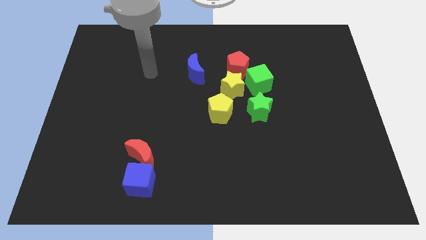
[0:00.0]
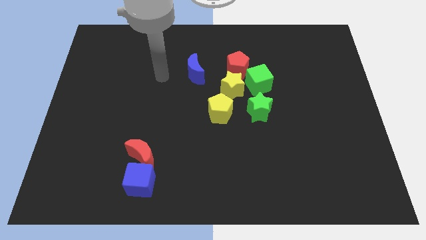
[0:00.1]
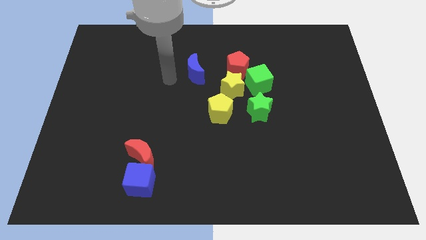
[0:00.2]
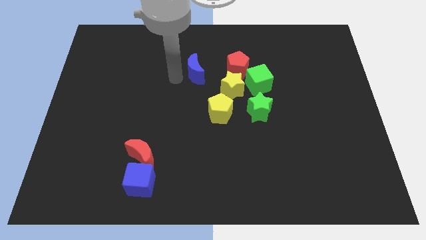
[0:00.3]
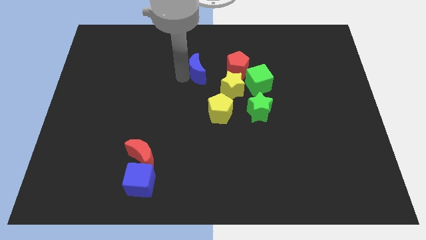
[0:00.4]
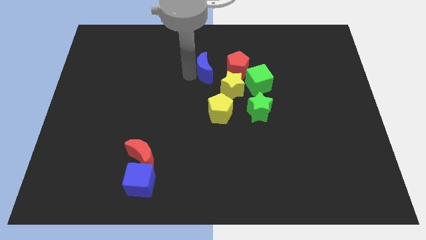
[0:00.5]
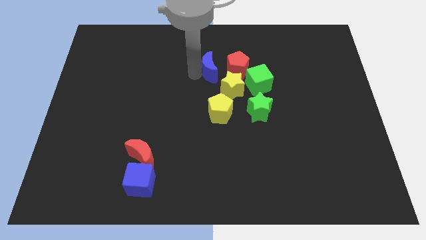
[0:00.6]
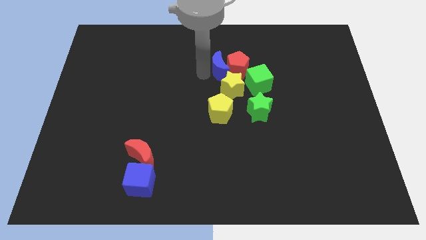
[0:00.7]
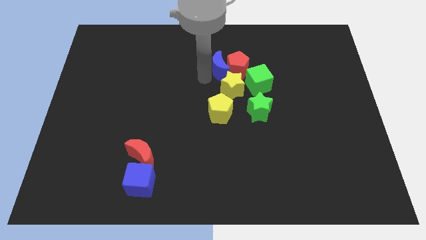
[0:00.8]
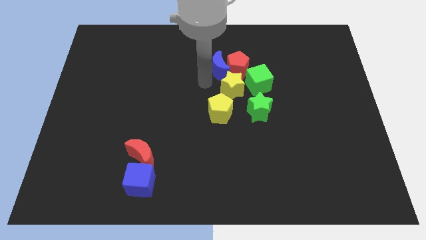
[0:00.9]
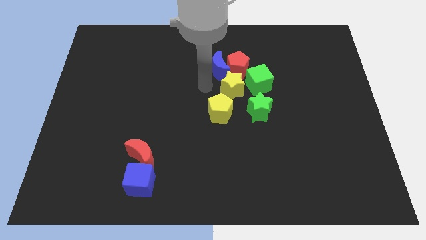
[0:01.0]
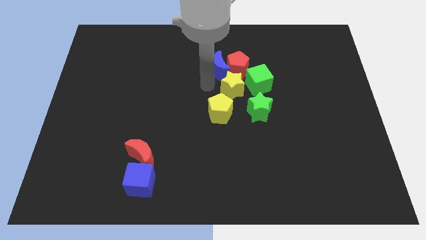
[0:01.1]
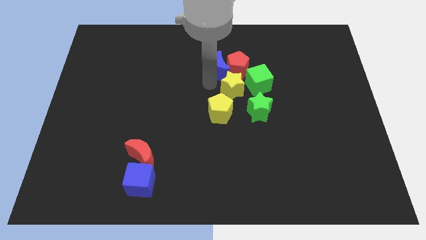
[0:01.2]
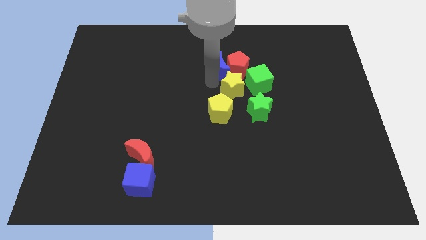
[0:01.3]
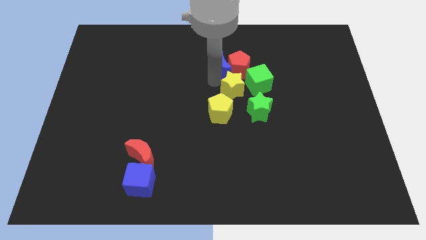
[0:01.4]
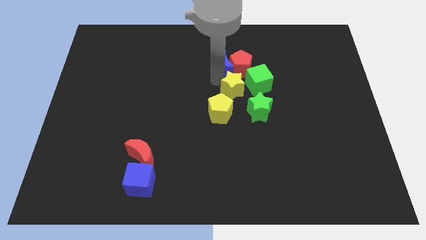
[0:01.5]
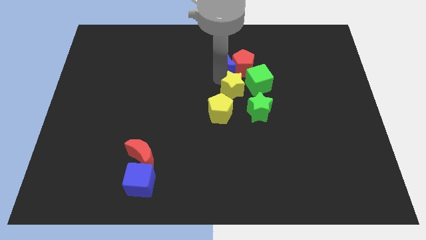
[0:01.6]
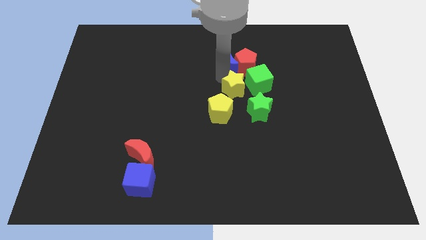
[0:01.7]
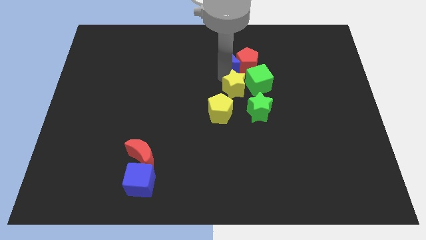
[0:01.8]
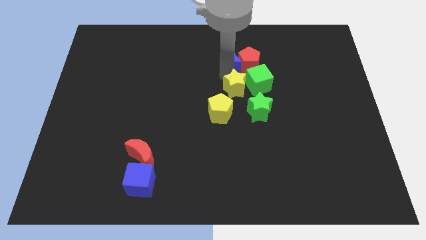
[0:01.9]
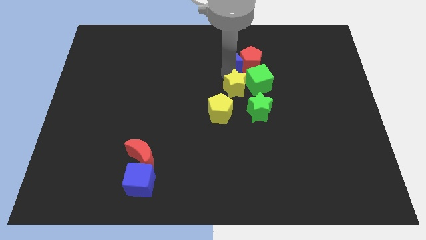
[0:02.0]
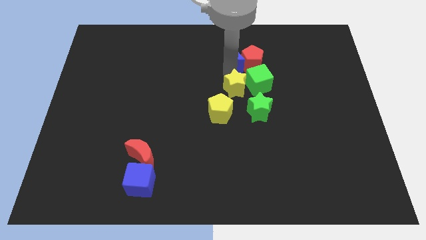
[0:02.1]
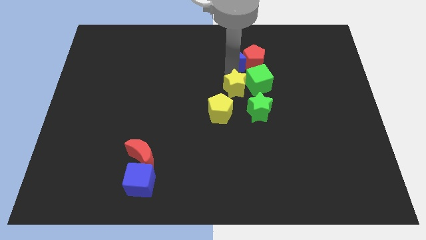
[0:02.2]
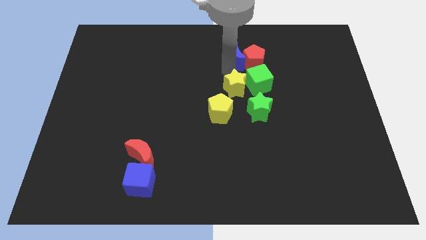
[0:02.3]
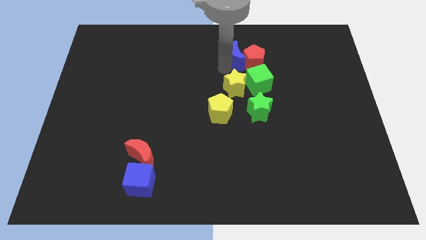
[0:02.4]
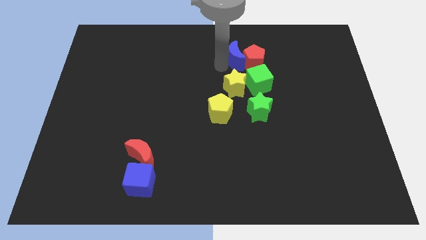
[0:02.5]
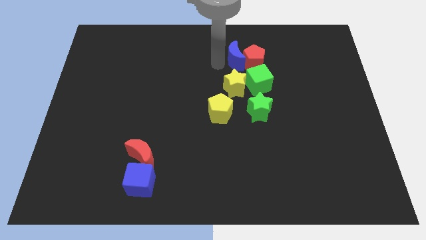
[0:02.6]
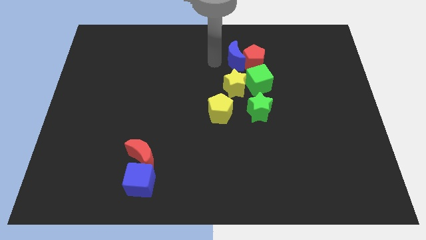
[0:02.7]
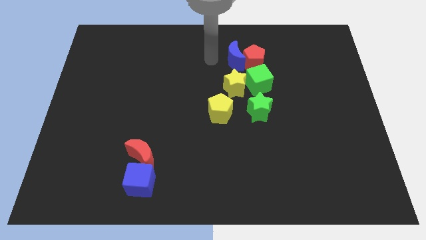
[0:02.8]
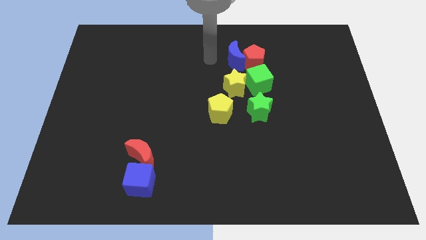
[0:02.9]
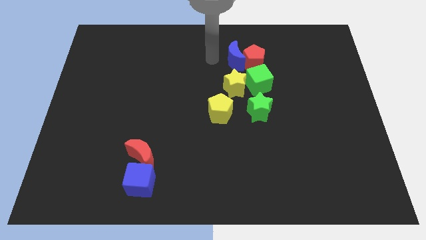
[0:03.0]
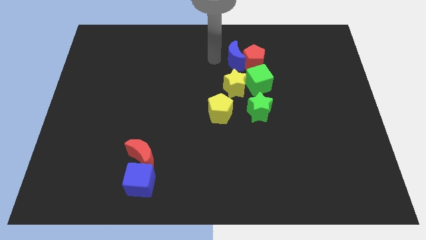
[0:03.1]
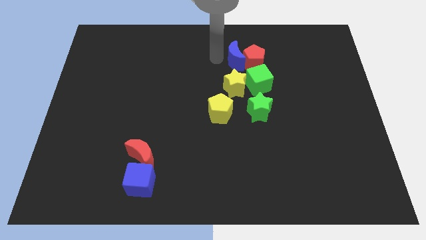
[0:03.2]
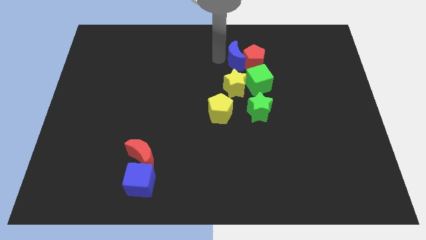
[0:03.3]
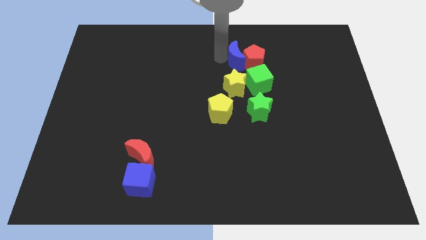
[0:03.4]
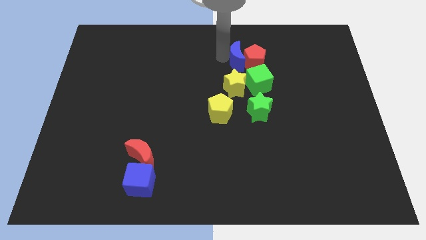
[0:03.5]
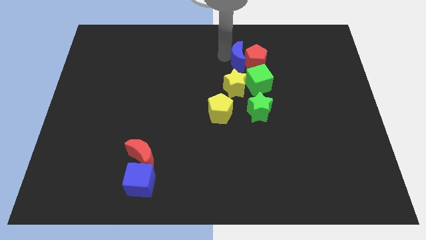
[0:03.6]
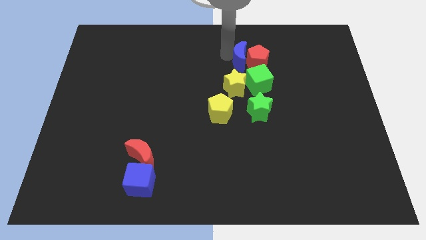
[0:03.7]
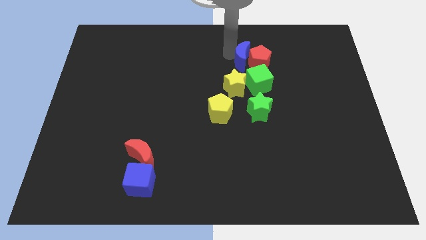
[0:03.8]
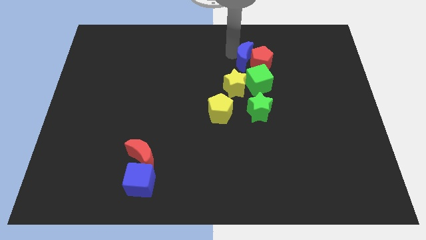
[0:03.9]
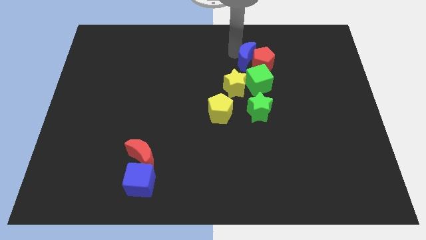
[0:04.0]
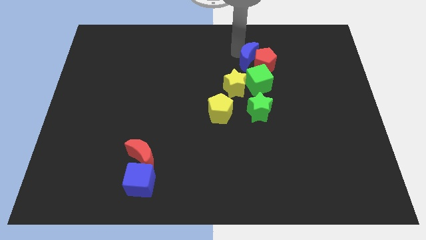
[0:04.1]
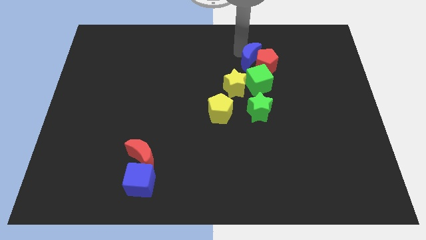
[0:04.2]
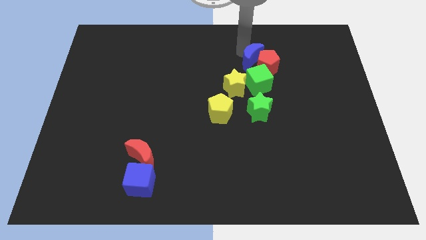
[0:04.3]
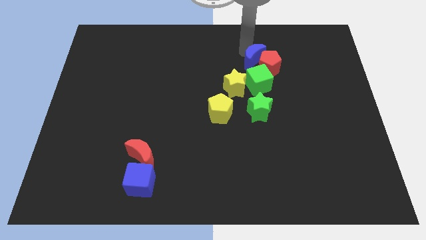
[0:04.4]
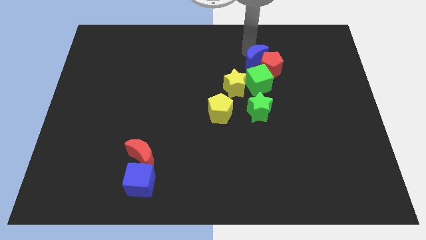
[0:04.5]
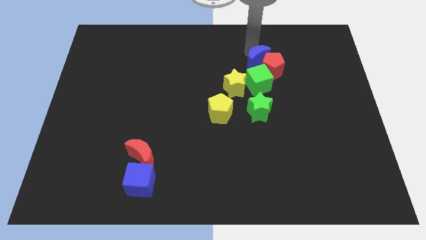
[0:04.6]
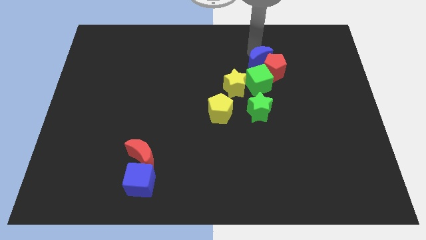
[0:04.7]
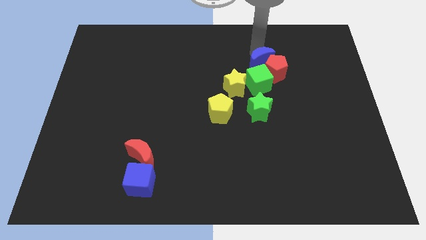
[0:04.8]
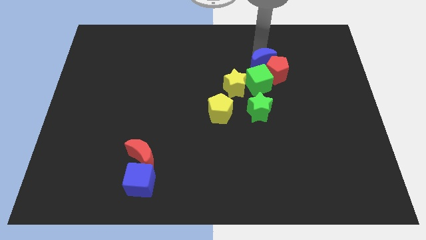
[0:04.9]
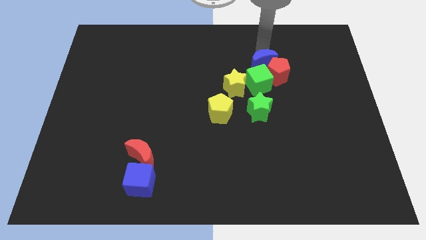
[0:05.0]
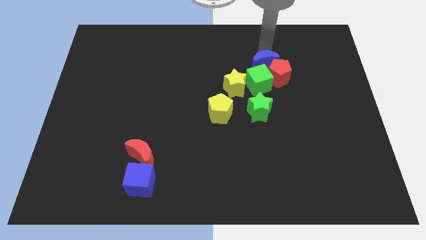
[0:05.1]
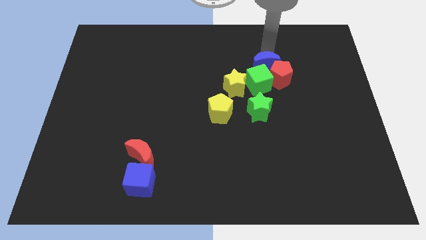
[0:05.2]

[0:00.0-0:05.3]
slide the blue moon close to the green cube

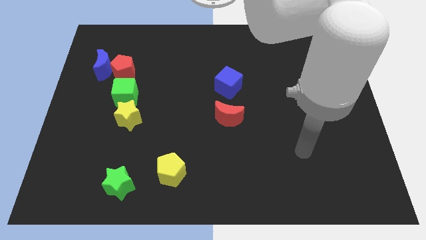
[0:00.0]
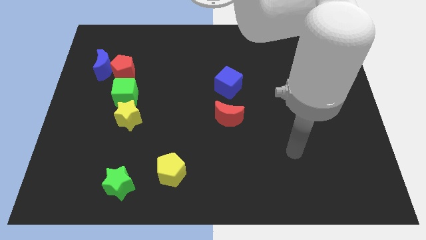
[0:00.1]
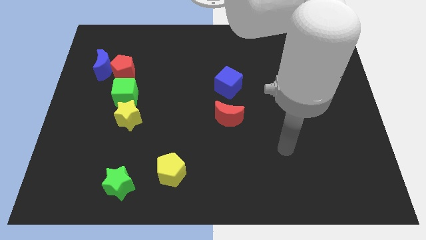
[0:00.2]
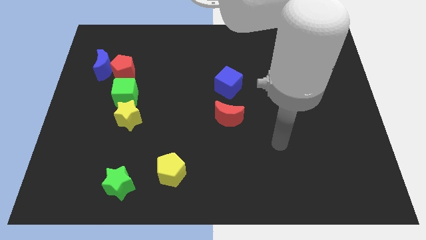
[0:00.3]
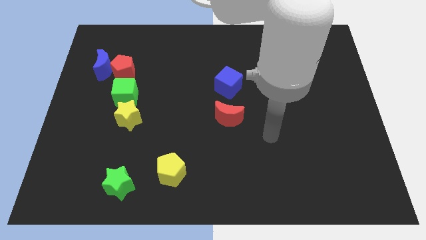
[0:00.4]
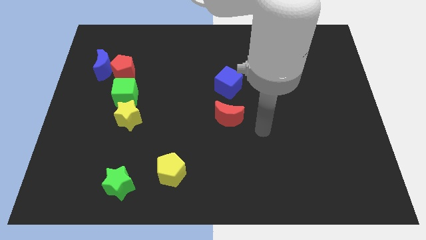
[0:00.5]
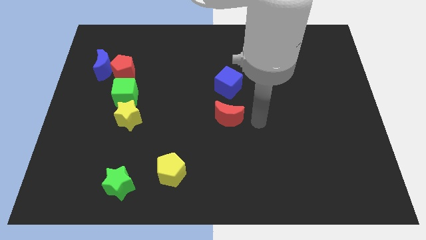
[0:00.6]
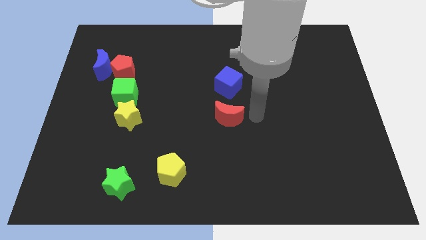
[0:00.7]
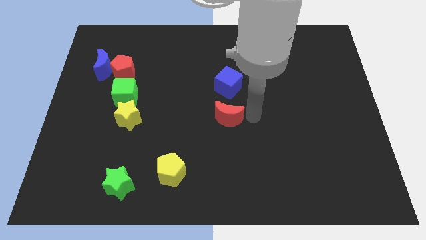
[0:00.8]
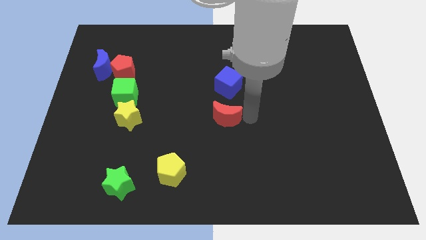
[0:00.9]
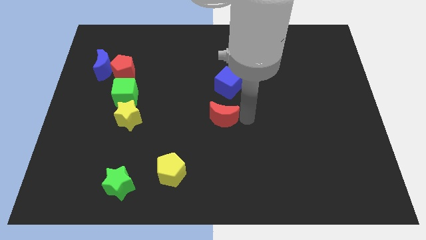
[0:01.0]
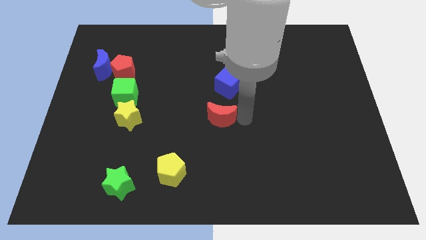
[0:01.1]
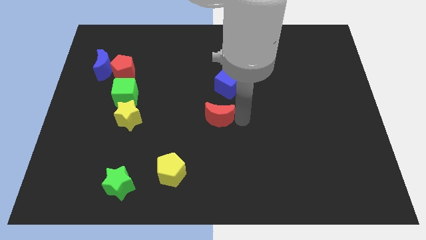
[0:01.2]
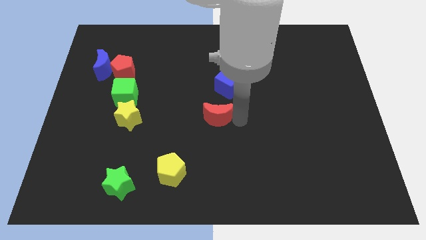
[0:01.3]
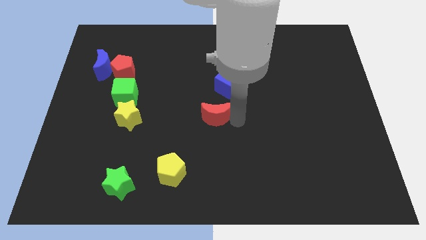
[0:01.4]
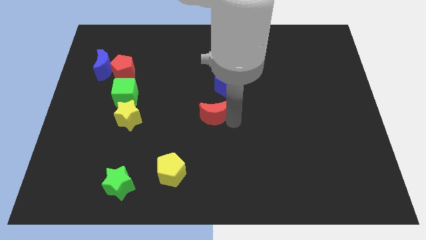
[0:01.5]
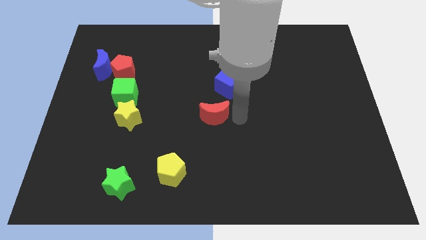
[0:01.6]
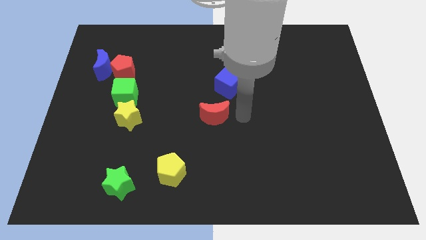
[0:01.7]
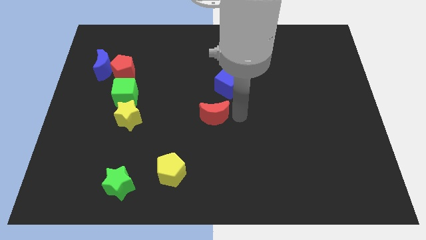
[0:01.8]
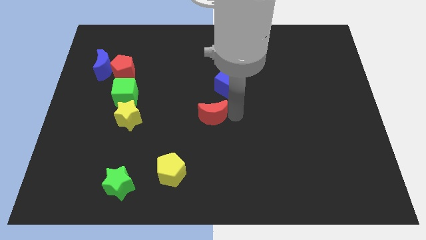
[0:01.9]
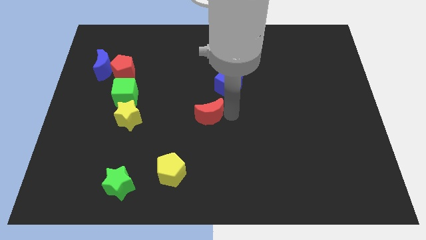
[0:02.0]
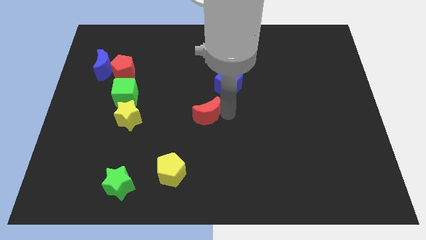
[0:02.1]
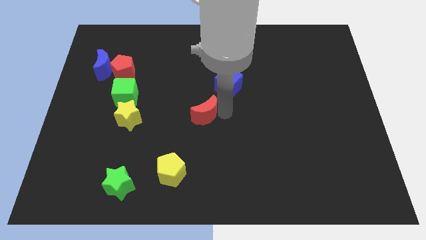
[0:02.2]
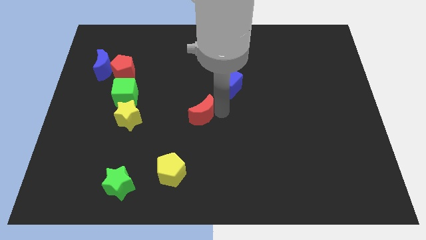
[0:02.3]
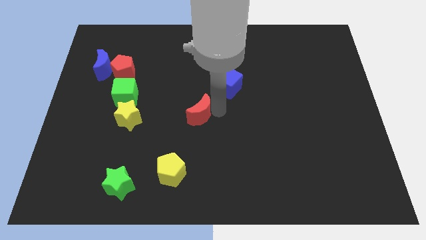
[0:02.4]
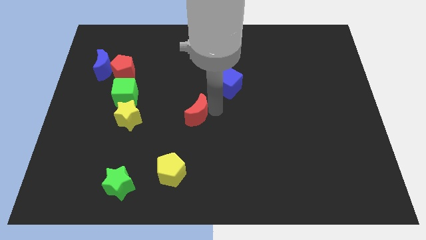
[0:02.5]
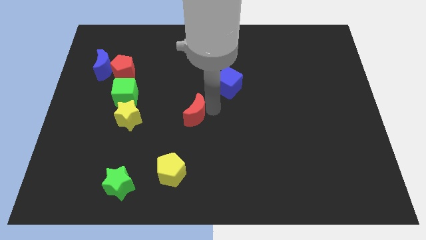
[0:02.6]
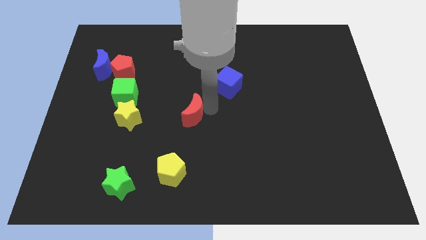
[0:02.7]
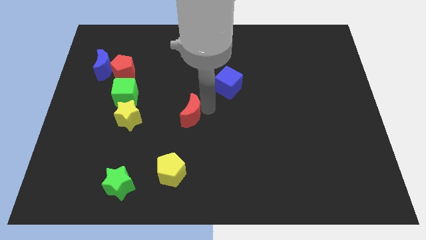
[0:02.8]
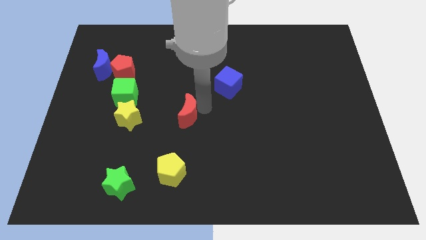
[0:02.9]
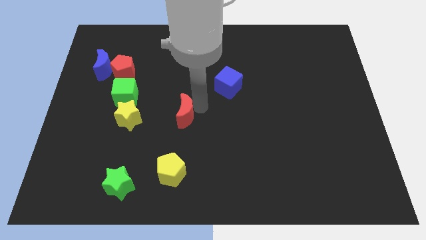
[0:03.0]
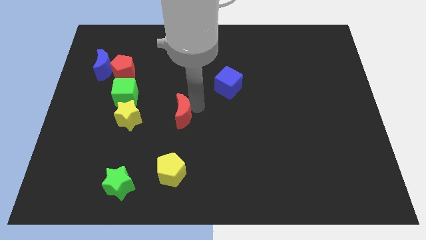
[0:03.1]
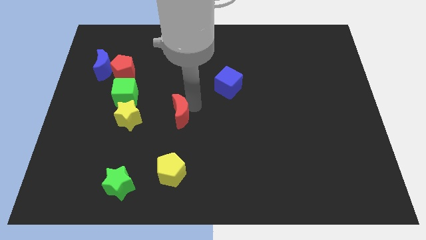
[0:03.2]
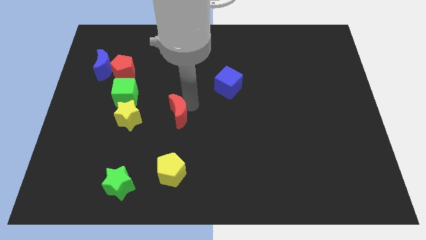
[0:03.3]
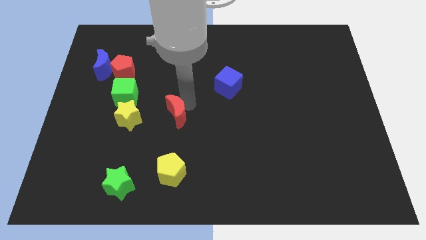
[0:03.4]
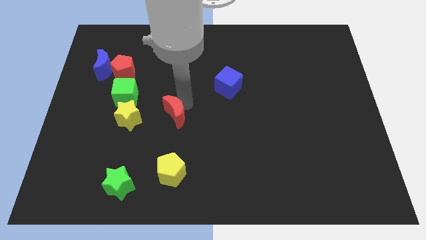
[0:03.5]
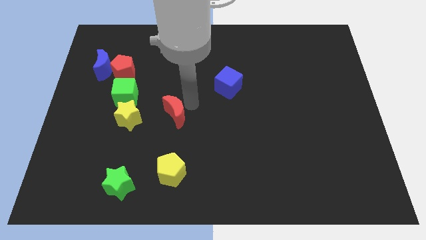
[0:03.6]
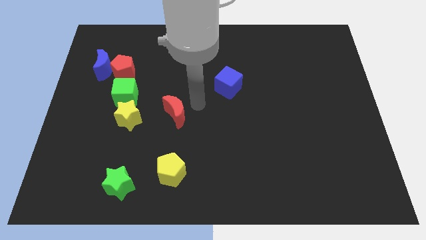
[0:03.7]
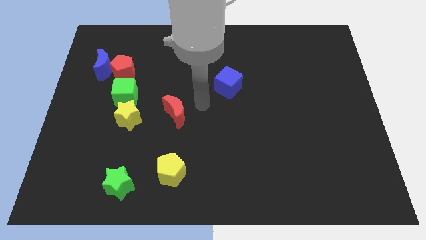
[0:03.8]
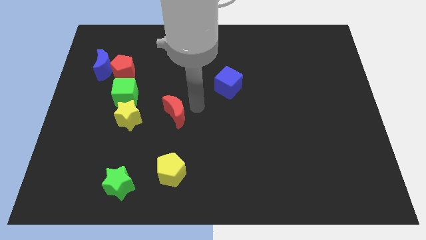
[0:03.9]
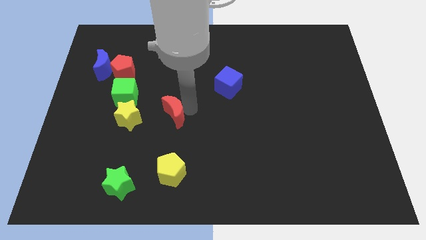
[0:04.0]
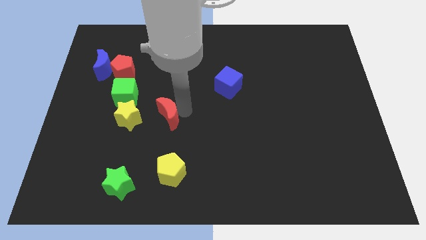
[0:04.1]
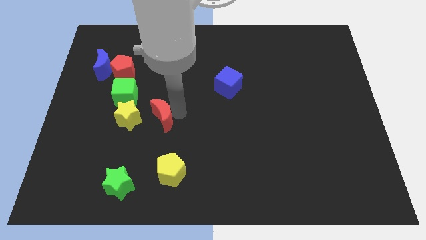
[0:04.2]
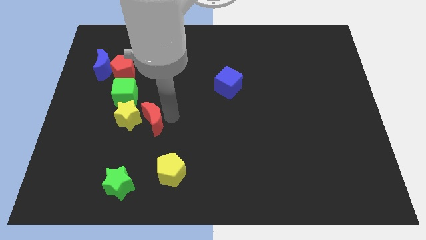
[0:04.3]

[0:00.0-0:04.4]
move the red moon next to the yellow star
